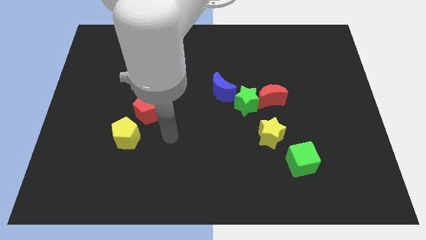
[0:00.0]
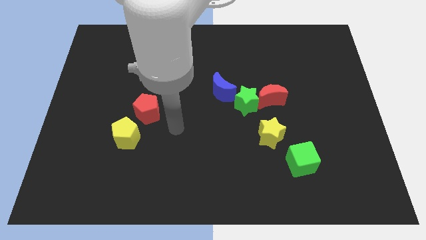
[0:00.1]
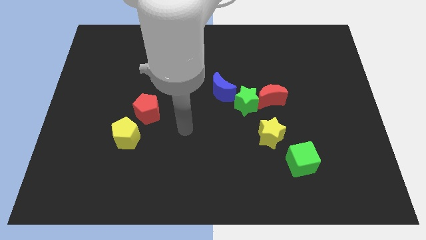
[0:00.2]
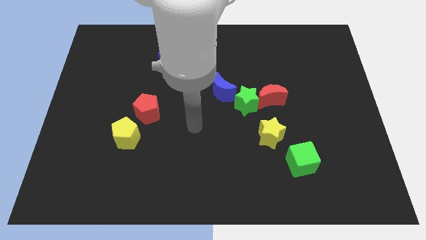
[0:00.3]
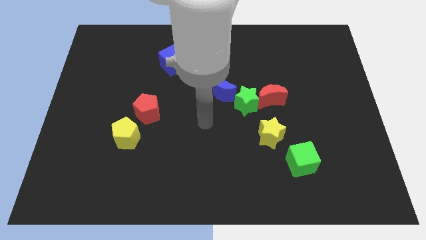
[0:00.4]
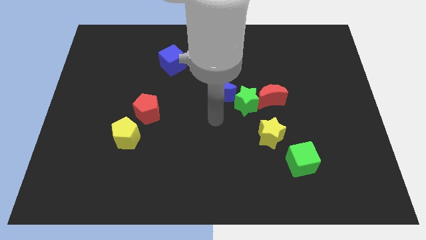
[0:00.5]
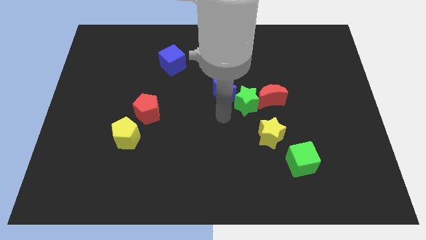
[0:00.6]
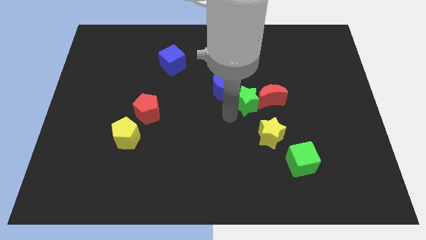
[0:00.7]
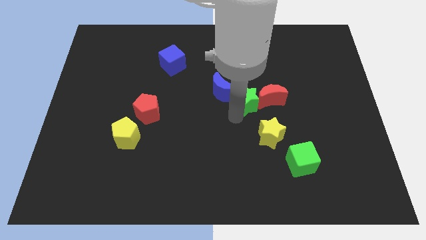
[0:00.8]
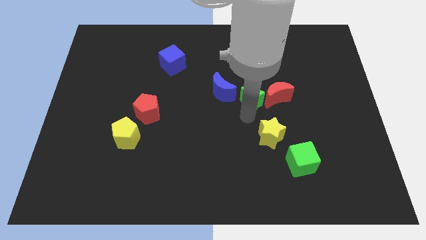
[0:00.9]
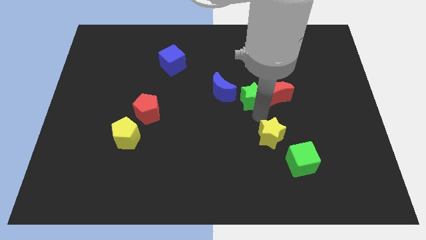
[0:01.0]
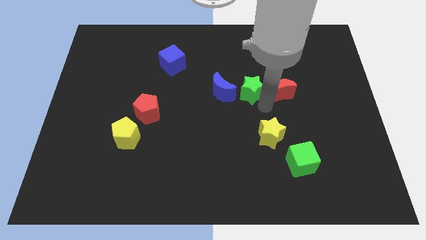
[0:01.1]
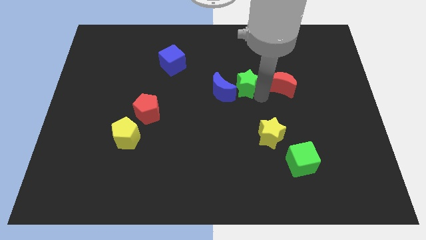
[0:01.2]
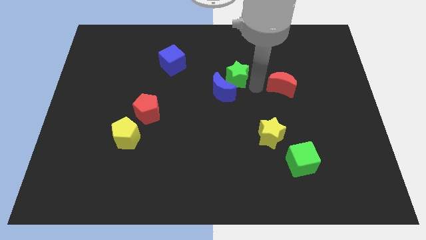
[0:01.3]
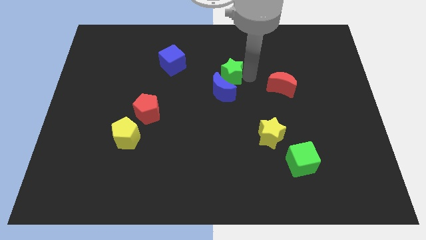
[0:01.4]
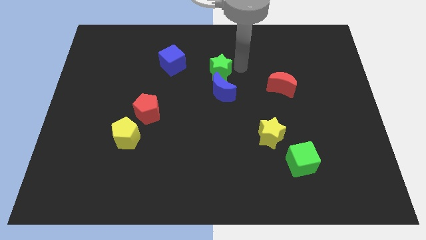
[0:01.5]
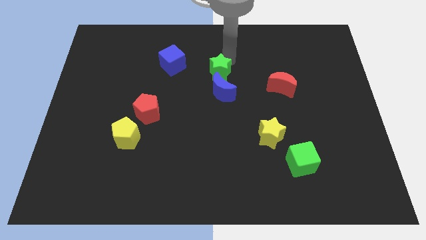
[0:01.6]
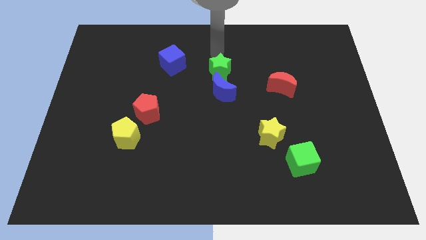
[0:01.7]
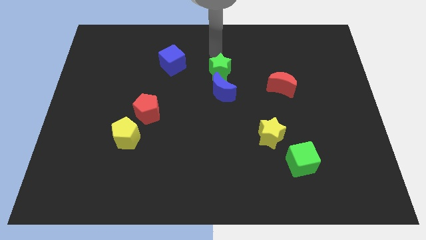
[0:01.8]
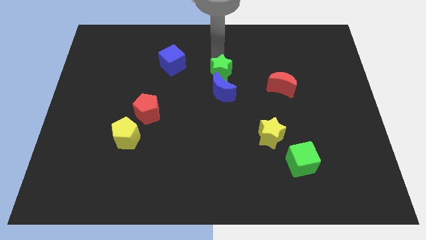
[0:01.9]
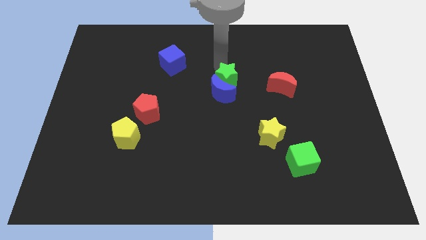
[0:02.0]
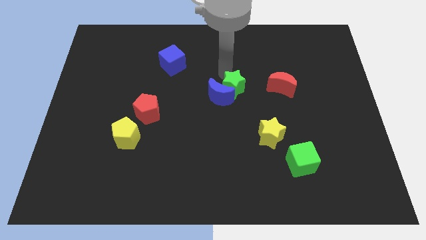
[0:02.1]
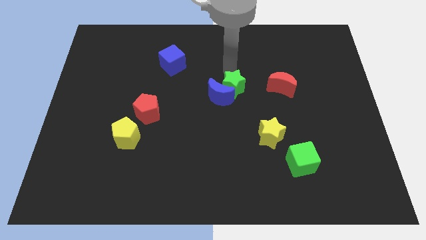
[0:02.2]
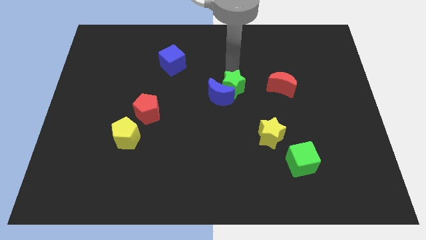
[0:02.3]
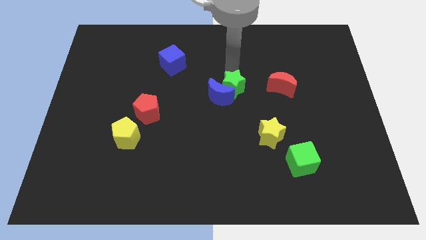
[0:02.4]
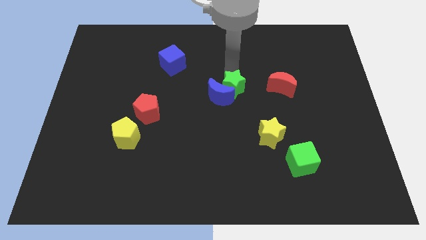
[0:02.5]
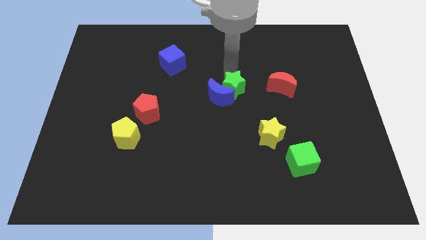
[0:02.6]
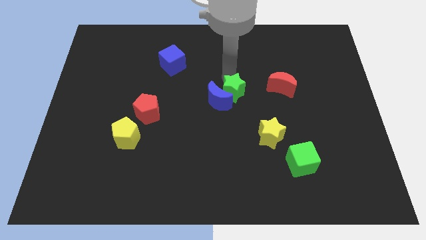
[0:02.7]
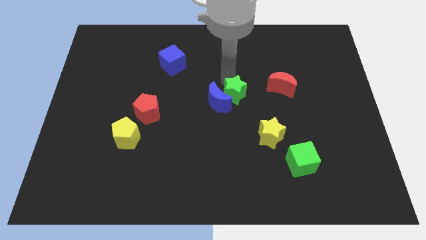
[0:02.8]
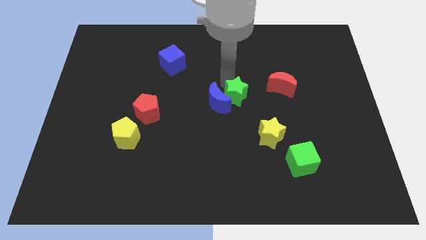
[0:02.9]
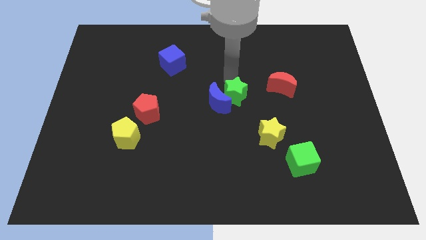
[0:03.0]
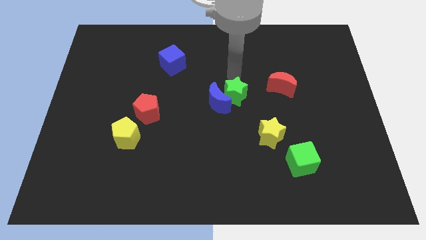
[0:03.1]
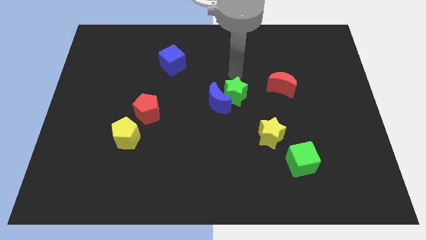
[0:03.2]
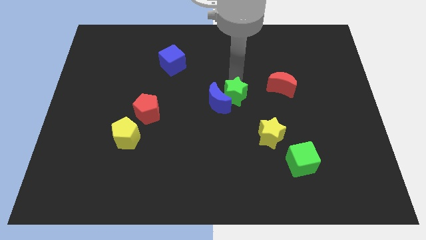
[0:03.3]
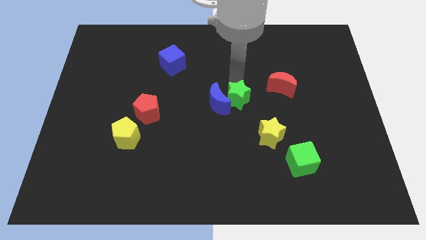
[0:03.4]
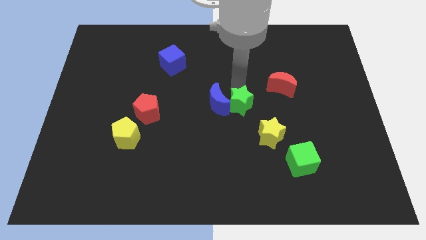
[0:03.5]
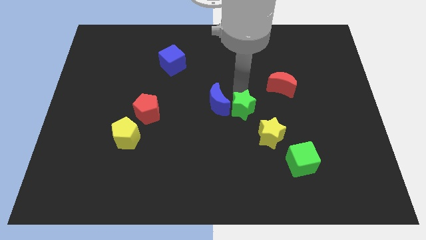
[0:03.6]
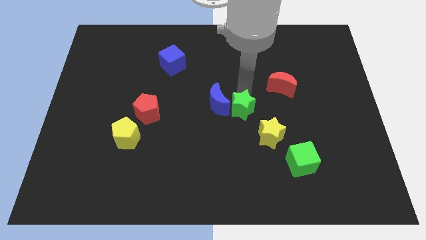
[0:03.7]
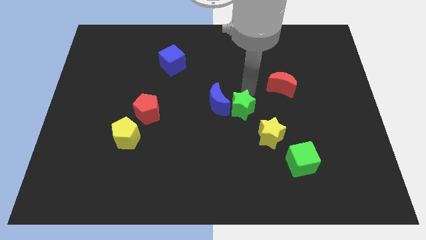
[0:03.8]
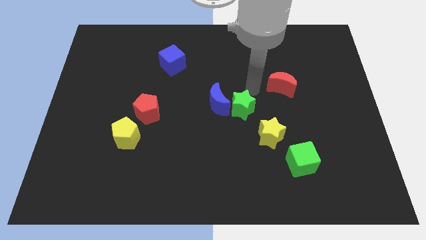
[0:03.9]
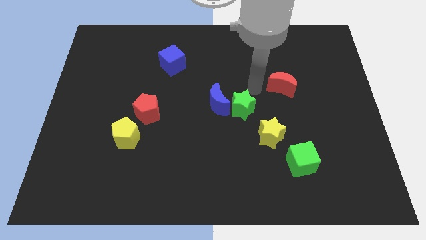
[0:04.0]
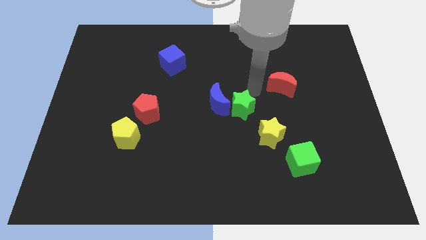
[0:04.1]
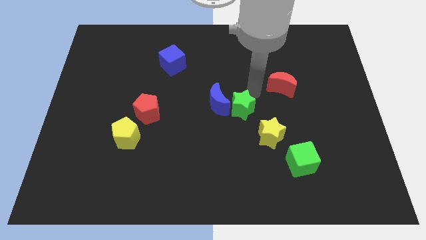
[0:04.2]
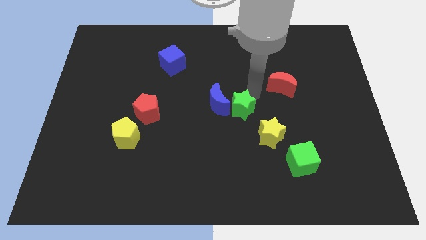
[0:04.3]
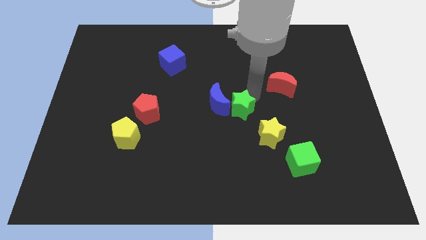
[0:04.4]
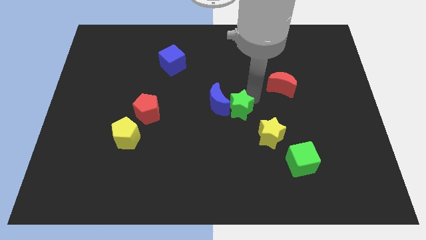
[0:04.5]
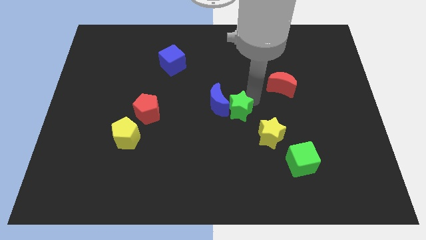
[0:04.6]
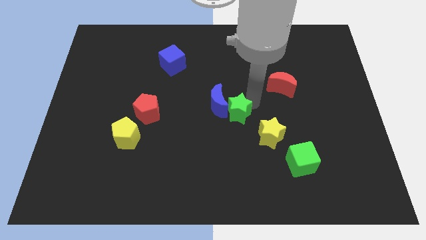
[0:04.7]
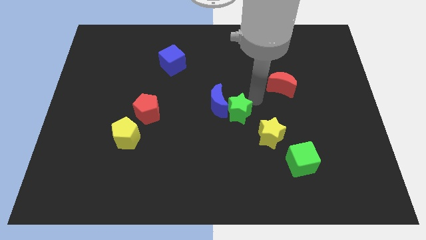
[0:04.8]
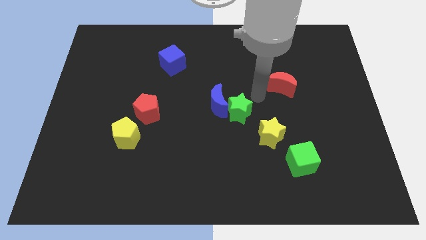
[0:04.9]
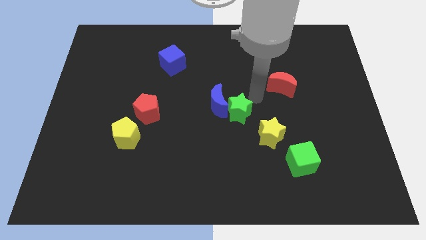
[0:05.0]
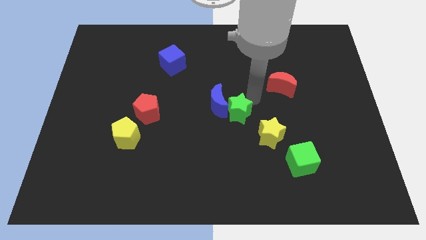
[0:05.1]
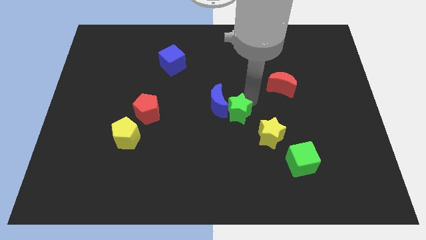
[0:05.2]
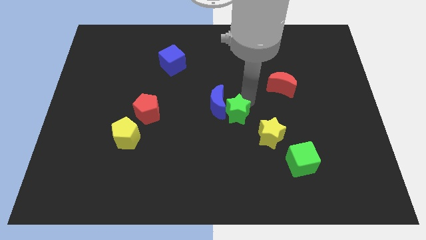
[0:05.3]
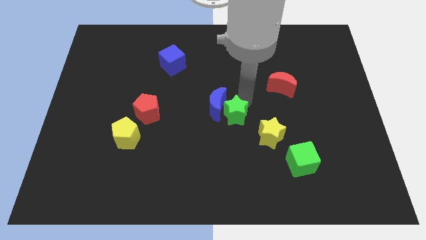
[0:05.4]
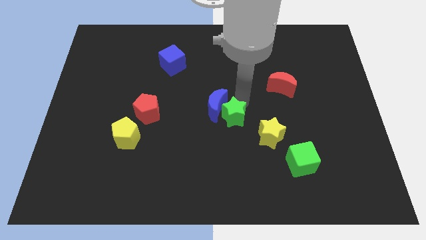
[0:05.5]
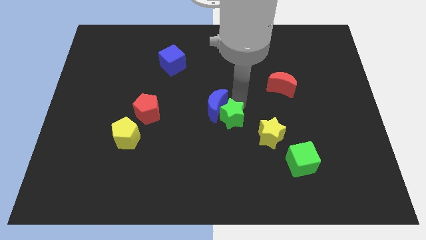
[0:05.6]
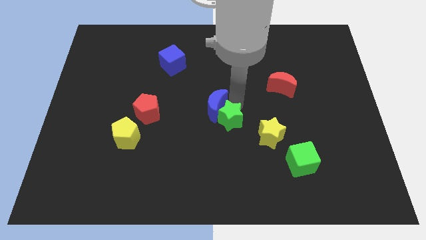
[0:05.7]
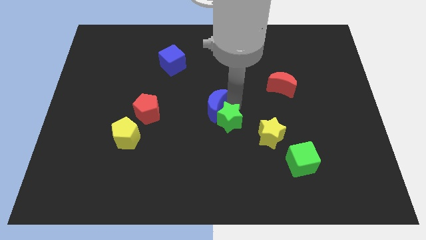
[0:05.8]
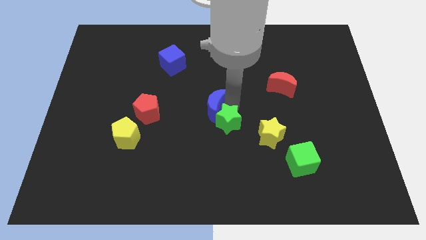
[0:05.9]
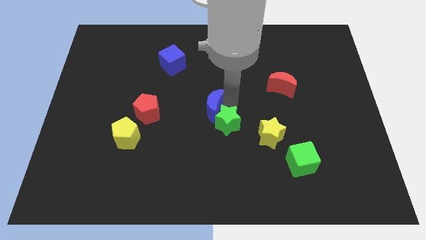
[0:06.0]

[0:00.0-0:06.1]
push the green star diagonally down and to the left a little bit

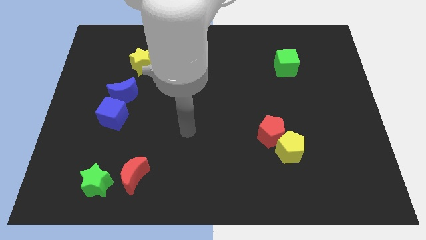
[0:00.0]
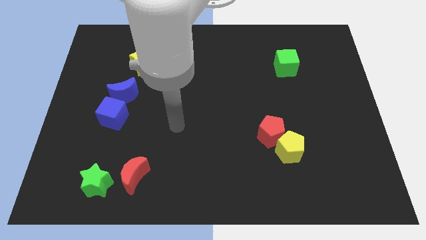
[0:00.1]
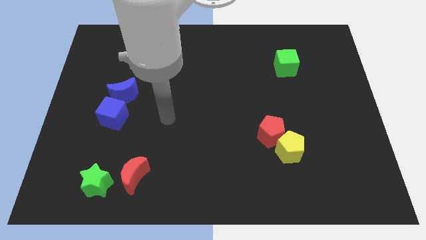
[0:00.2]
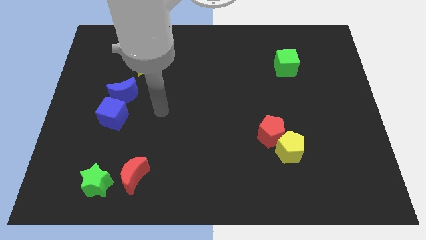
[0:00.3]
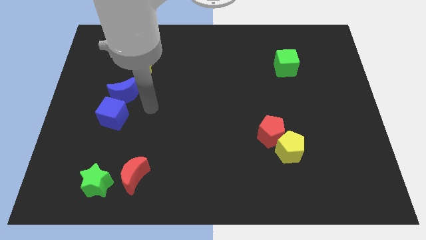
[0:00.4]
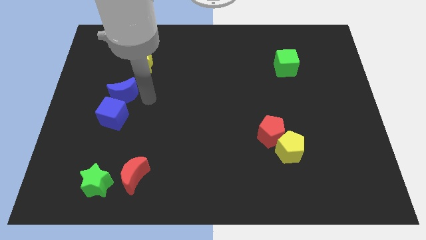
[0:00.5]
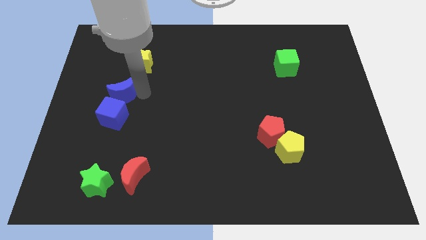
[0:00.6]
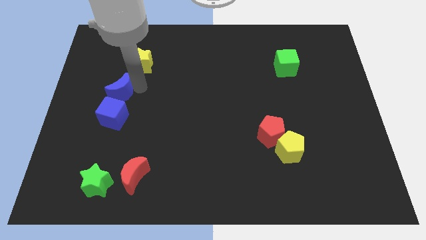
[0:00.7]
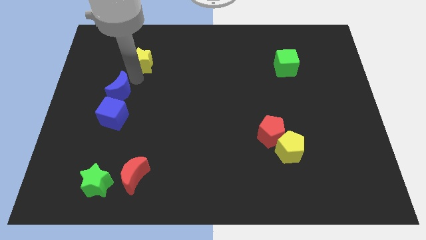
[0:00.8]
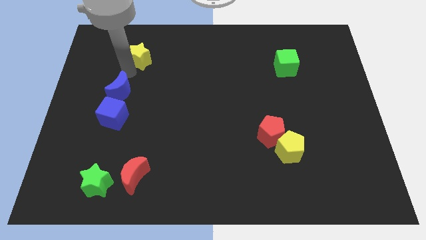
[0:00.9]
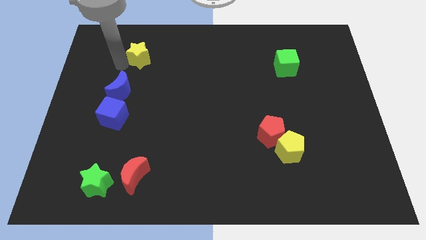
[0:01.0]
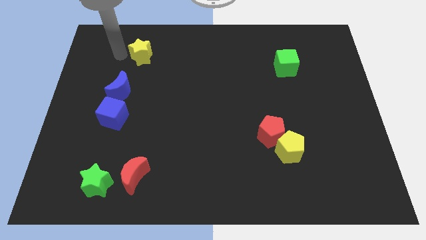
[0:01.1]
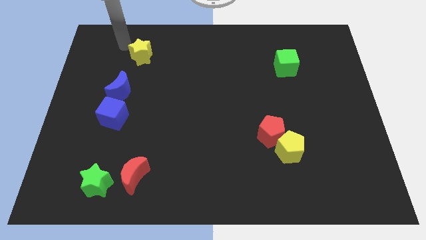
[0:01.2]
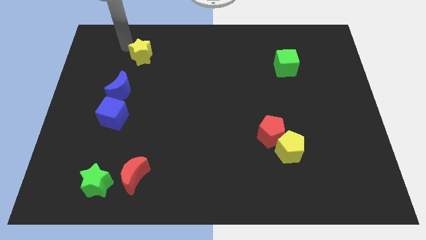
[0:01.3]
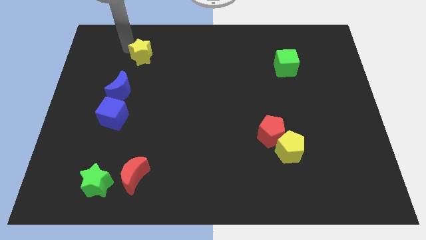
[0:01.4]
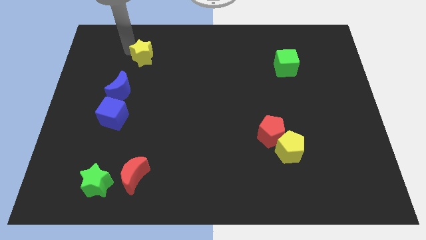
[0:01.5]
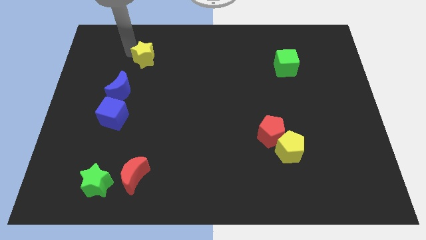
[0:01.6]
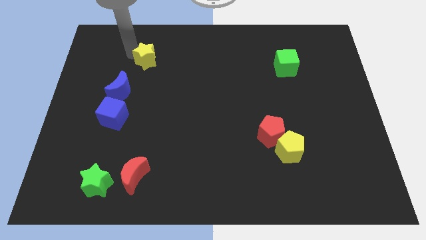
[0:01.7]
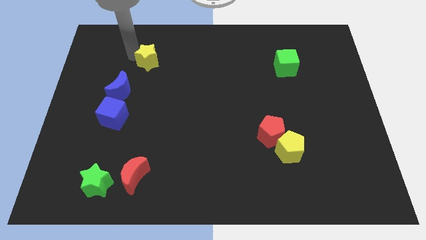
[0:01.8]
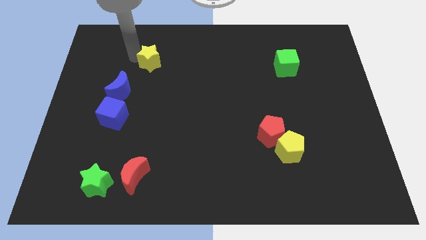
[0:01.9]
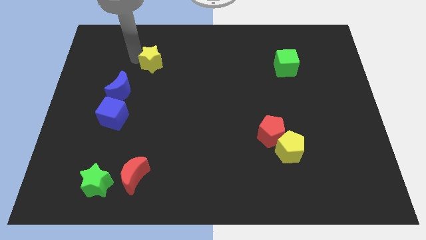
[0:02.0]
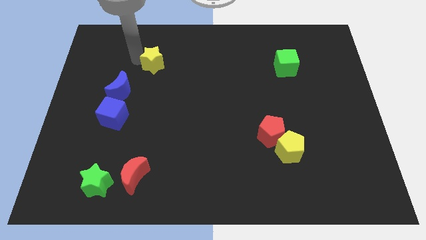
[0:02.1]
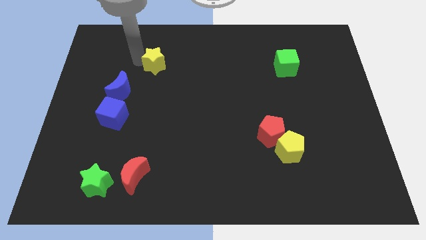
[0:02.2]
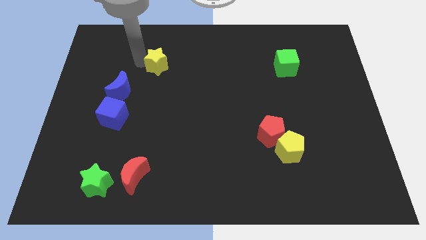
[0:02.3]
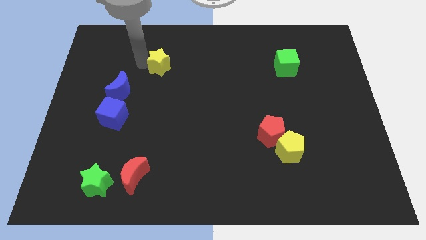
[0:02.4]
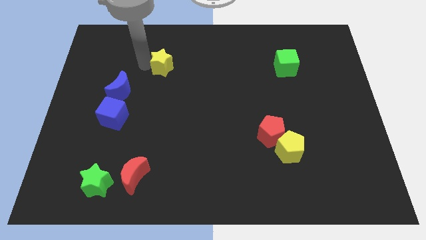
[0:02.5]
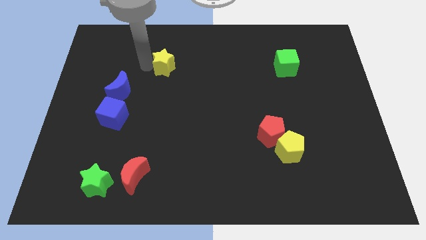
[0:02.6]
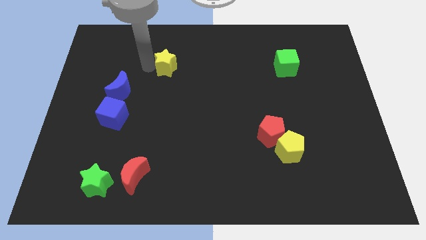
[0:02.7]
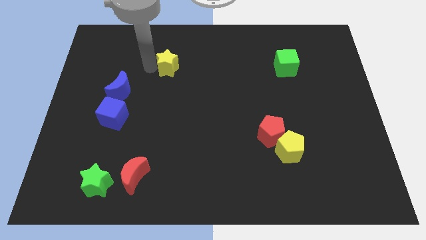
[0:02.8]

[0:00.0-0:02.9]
push the yellow star to the right somewhat
